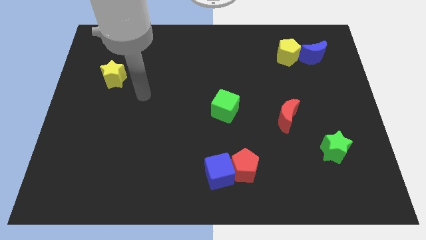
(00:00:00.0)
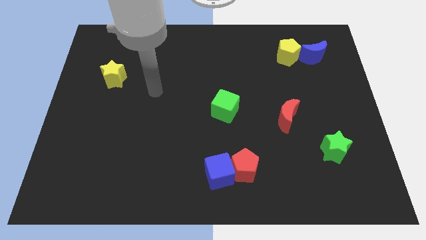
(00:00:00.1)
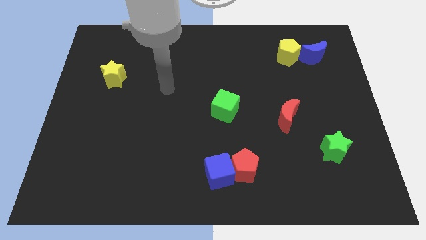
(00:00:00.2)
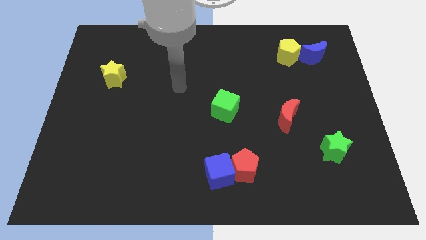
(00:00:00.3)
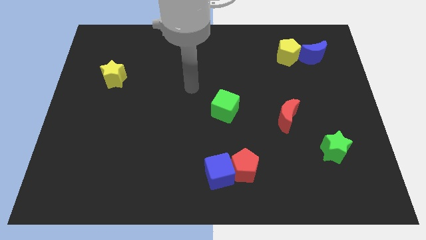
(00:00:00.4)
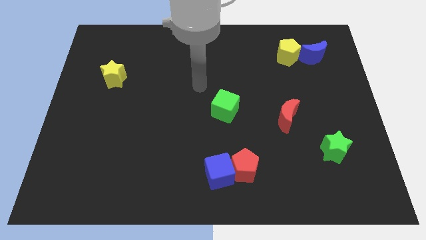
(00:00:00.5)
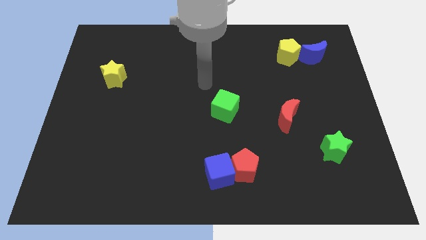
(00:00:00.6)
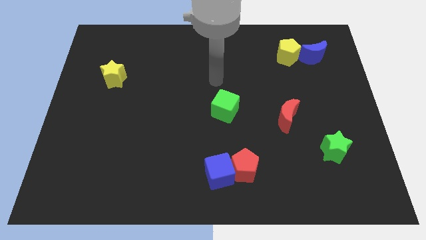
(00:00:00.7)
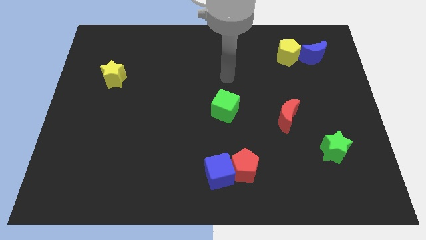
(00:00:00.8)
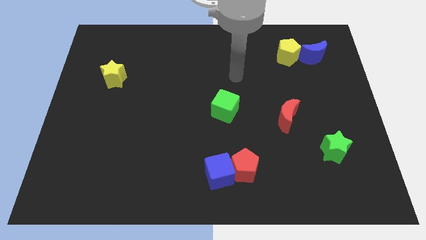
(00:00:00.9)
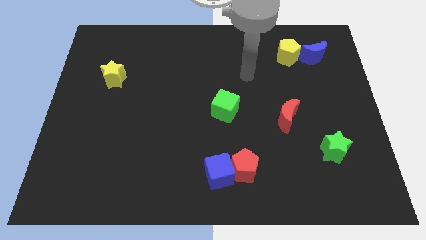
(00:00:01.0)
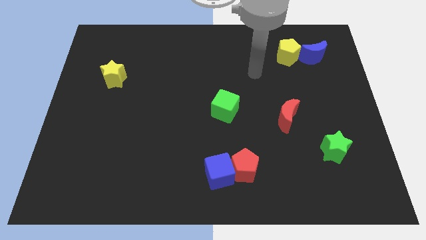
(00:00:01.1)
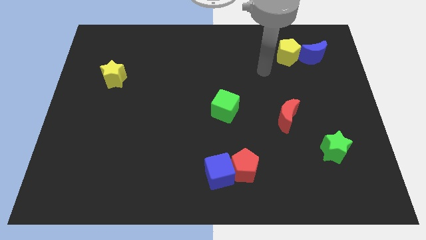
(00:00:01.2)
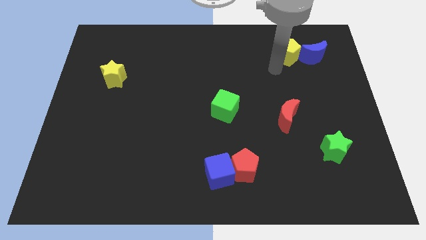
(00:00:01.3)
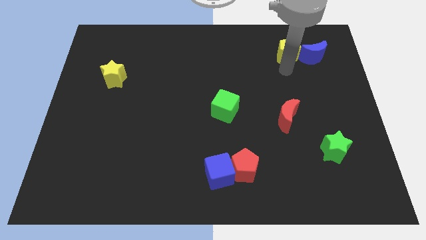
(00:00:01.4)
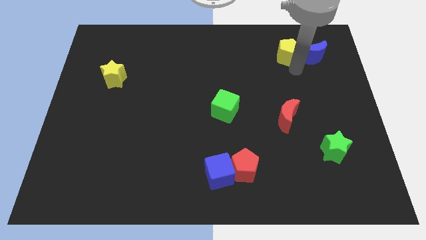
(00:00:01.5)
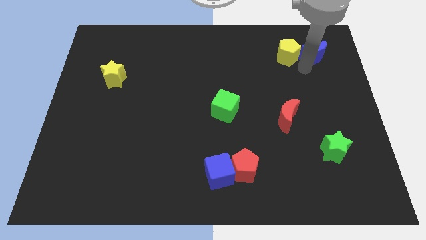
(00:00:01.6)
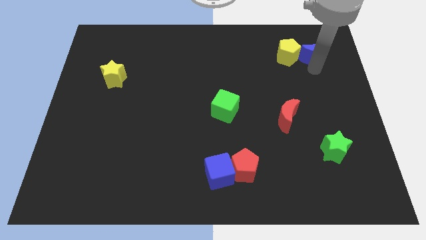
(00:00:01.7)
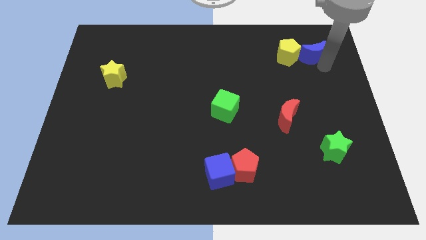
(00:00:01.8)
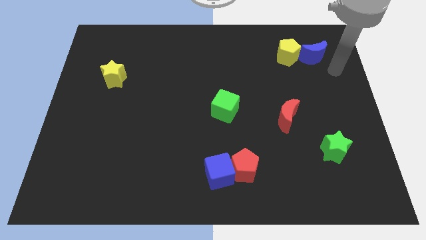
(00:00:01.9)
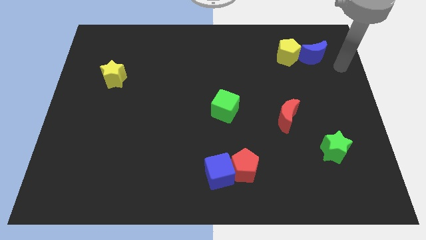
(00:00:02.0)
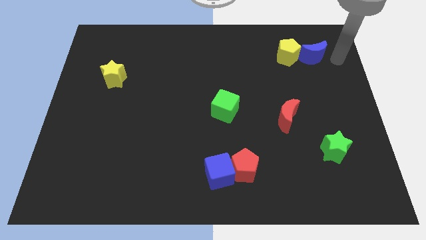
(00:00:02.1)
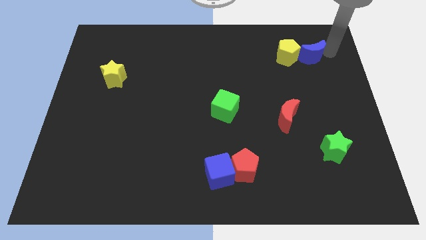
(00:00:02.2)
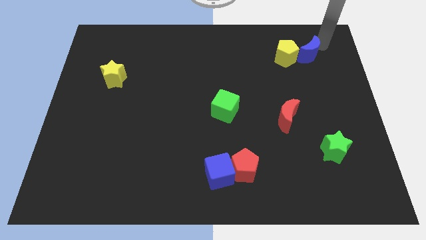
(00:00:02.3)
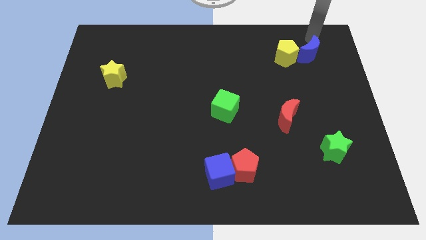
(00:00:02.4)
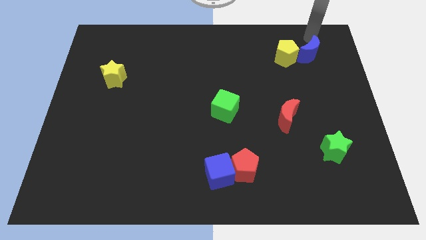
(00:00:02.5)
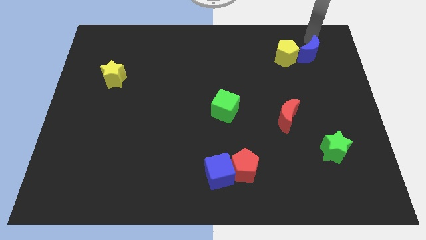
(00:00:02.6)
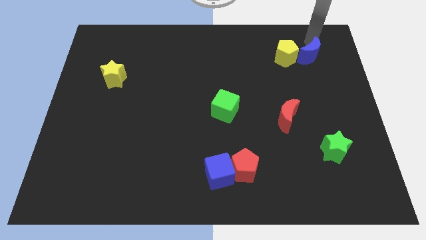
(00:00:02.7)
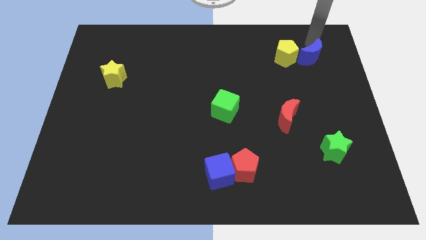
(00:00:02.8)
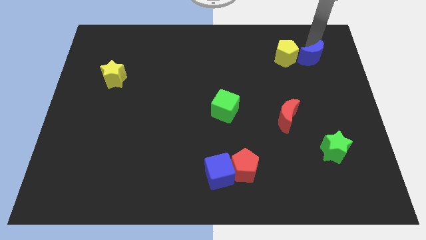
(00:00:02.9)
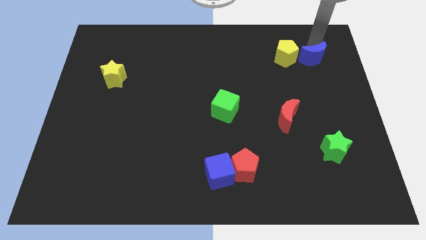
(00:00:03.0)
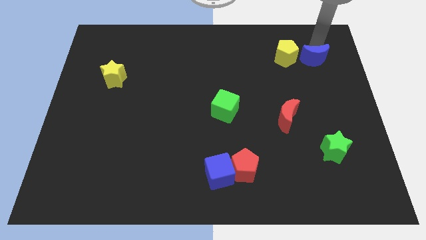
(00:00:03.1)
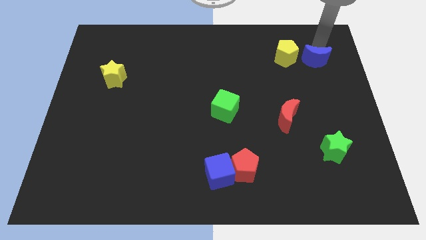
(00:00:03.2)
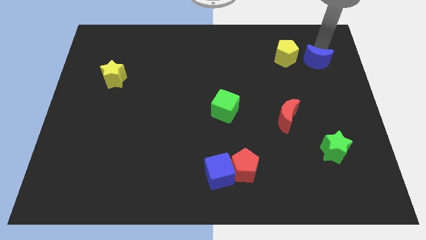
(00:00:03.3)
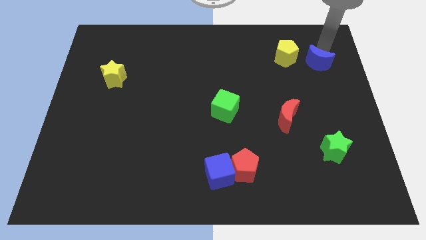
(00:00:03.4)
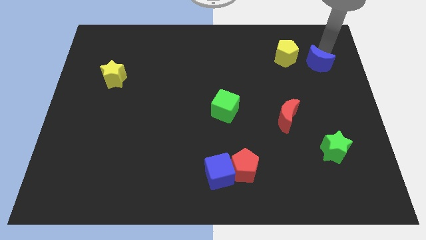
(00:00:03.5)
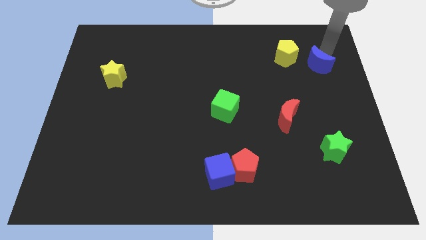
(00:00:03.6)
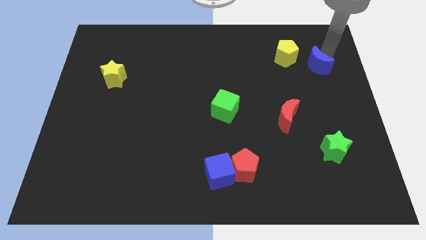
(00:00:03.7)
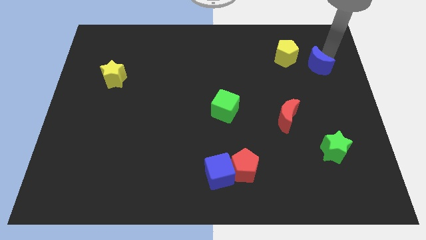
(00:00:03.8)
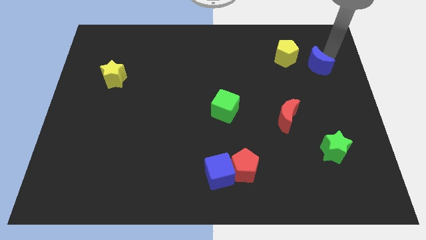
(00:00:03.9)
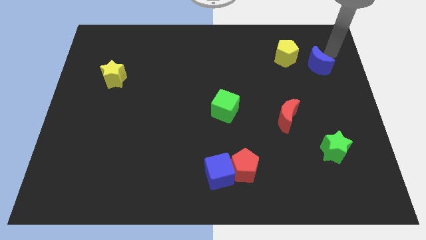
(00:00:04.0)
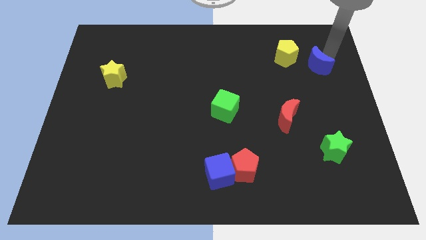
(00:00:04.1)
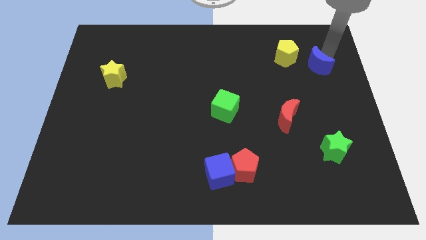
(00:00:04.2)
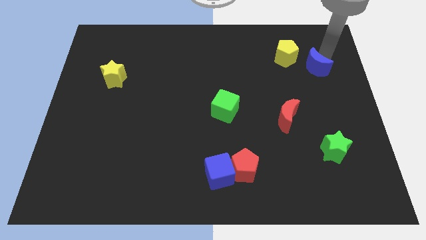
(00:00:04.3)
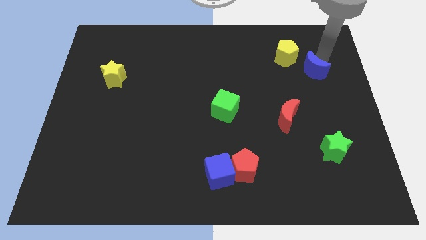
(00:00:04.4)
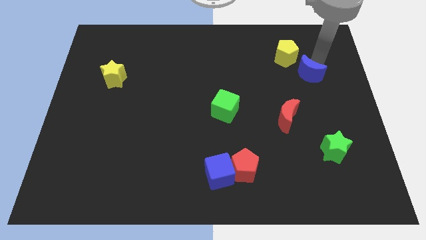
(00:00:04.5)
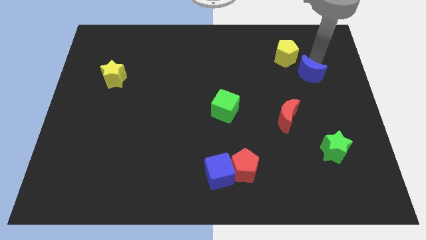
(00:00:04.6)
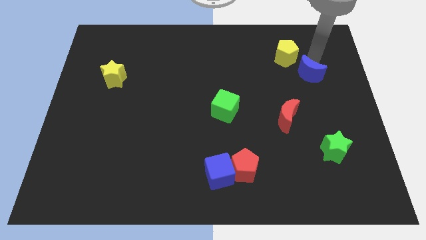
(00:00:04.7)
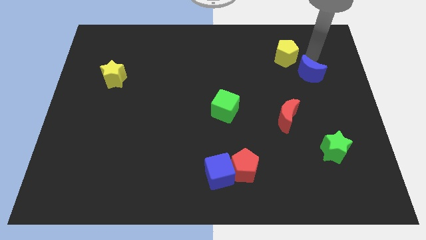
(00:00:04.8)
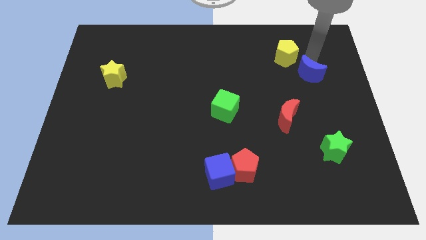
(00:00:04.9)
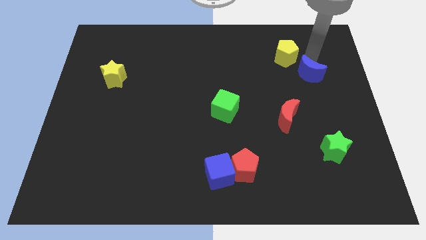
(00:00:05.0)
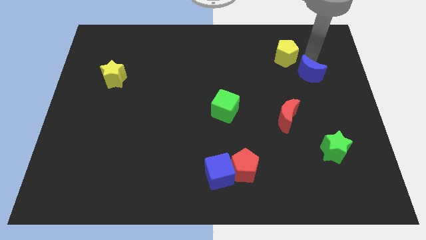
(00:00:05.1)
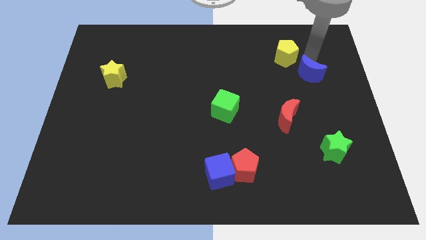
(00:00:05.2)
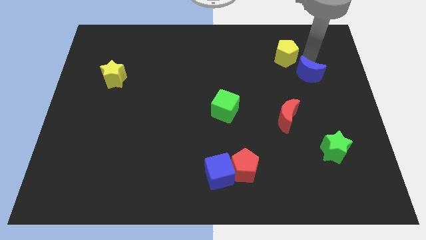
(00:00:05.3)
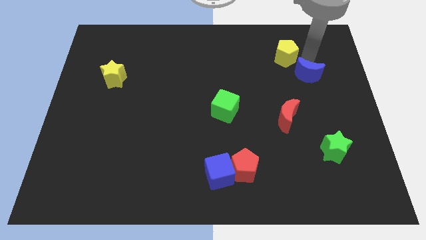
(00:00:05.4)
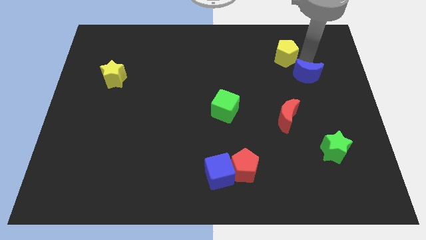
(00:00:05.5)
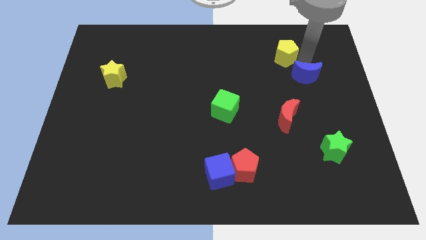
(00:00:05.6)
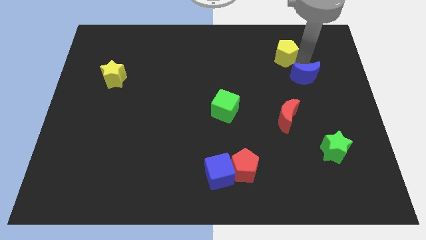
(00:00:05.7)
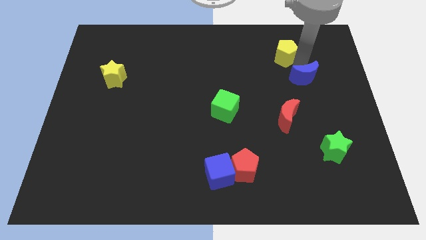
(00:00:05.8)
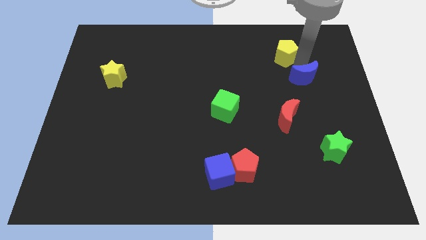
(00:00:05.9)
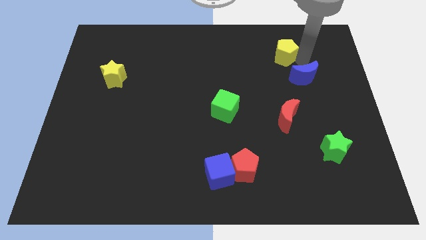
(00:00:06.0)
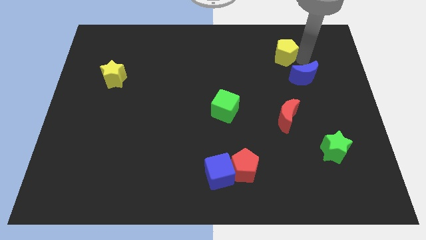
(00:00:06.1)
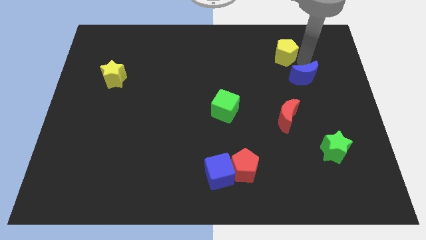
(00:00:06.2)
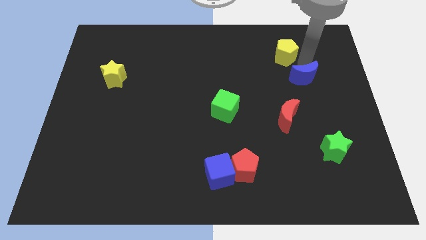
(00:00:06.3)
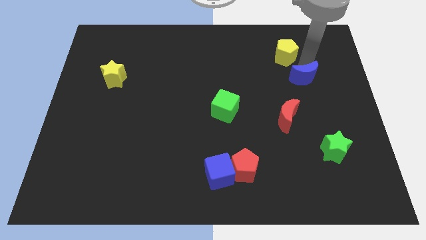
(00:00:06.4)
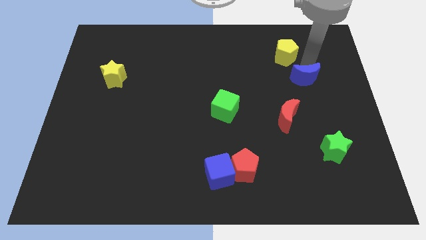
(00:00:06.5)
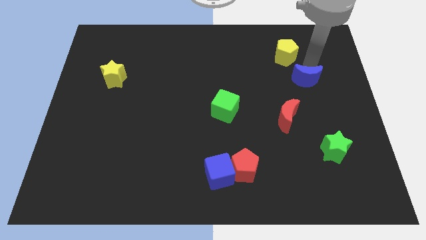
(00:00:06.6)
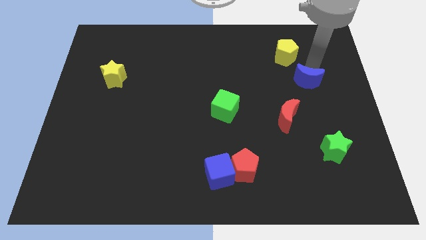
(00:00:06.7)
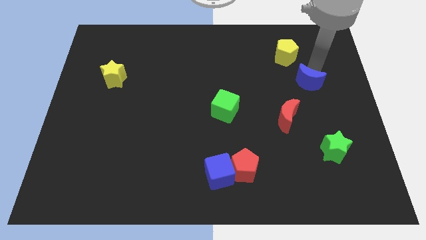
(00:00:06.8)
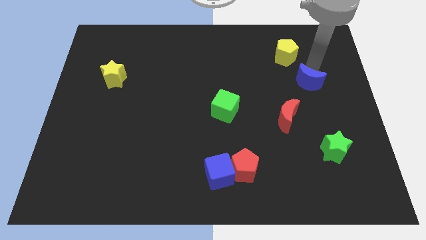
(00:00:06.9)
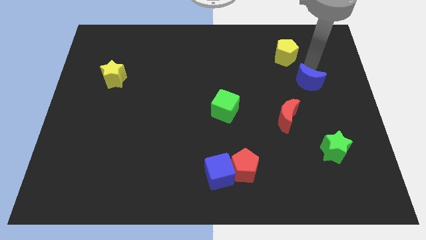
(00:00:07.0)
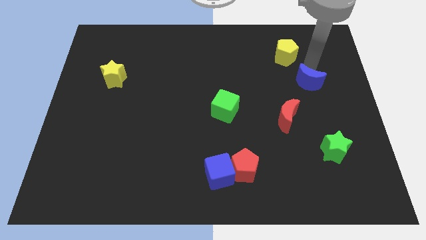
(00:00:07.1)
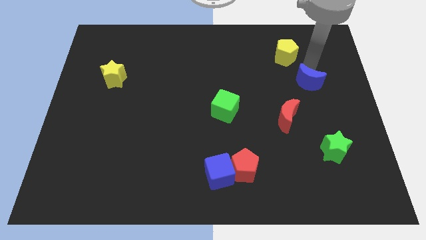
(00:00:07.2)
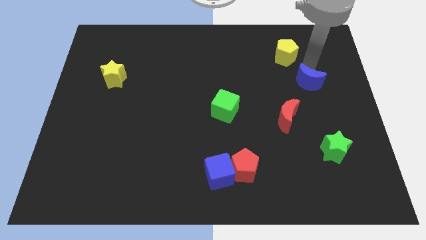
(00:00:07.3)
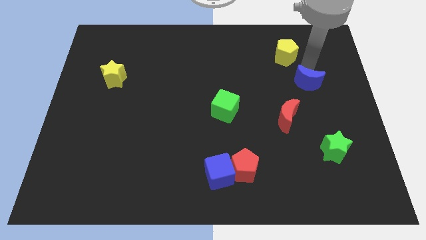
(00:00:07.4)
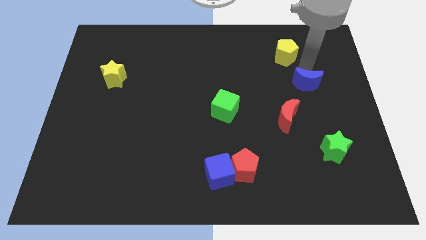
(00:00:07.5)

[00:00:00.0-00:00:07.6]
move the blue moon to the top right of the red moon
